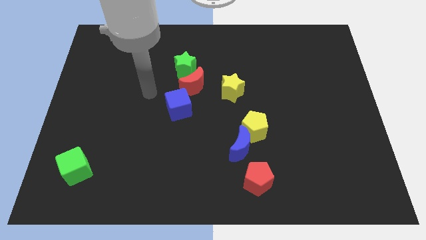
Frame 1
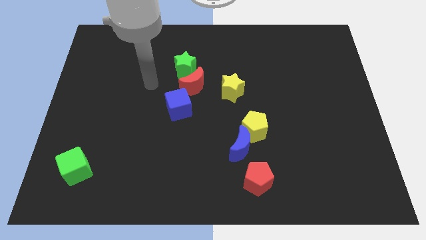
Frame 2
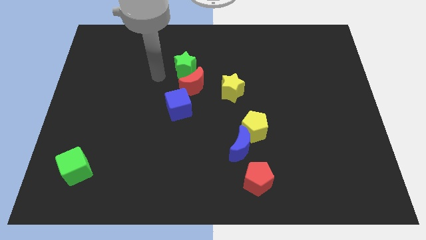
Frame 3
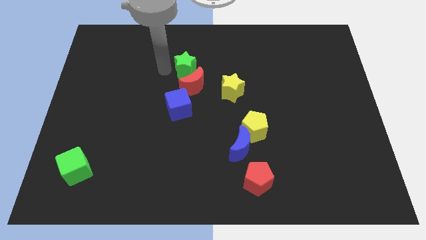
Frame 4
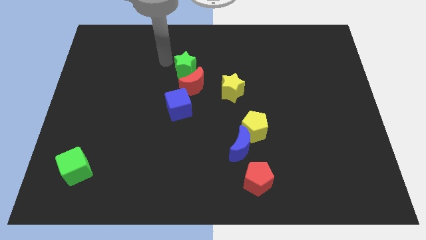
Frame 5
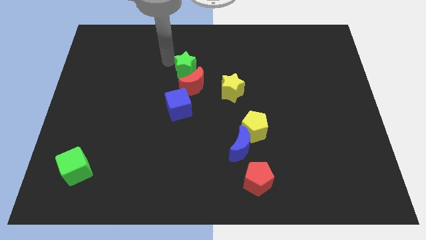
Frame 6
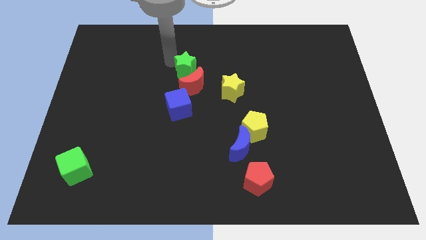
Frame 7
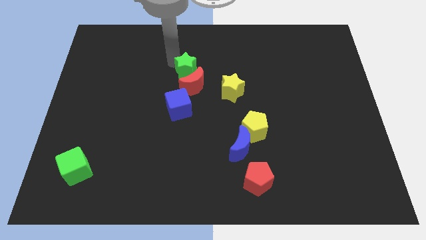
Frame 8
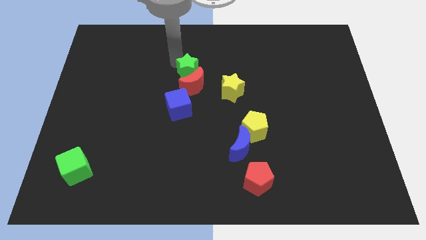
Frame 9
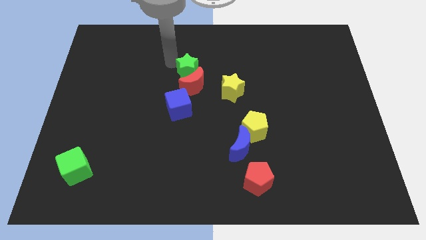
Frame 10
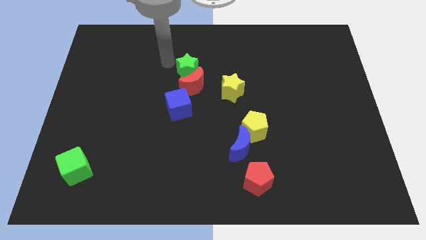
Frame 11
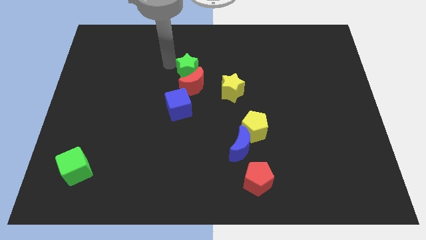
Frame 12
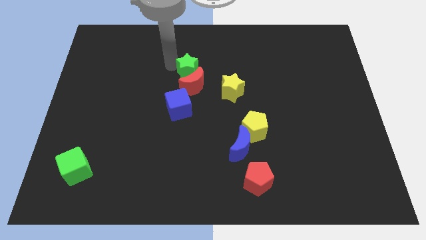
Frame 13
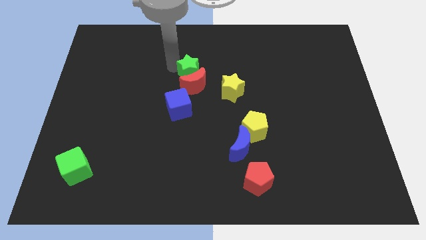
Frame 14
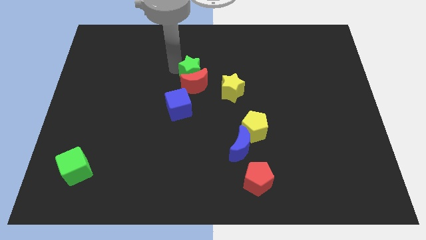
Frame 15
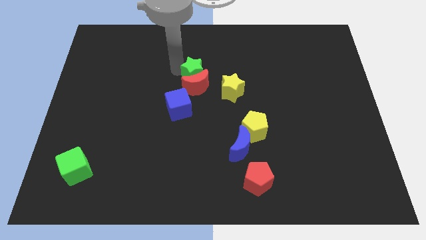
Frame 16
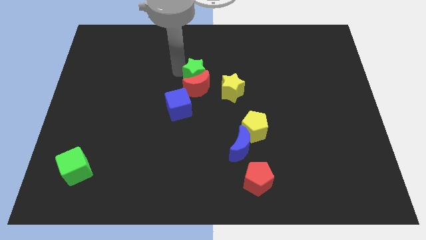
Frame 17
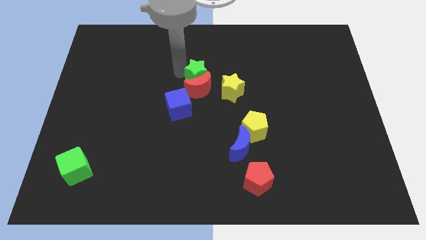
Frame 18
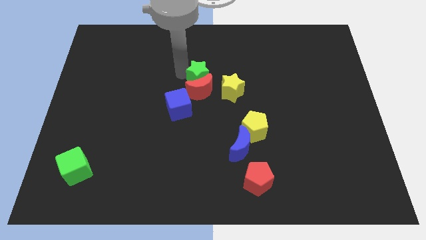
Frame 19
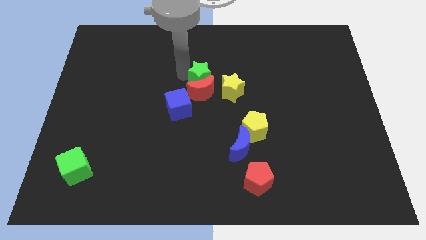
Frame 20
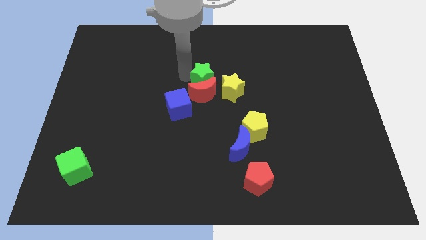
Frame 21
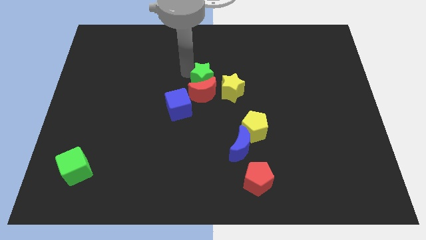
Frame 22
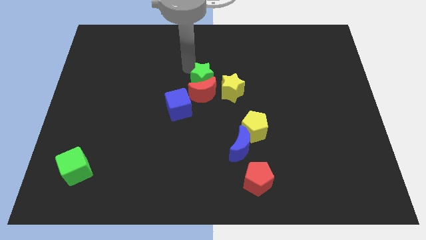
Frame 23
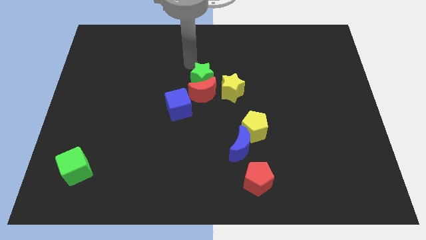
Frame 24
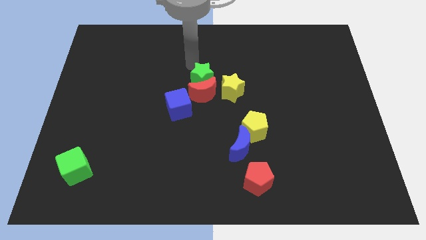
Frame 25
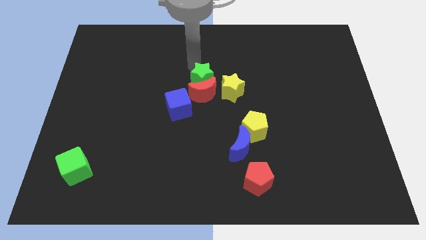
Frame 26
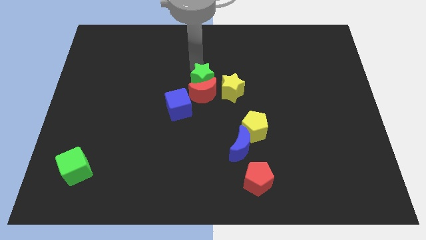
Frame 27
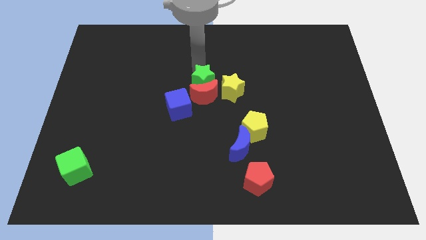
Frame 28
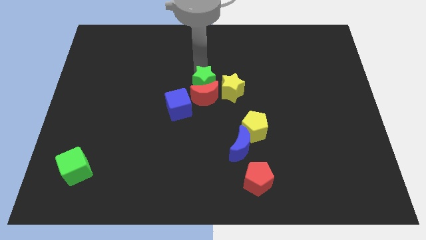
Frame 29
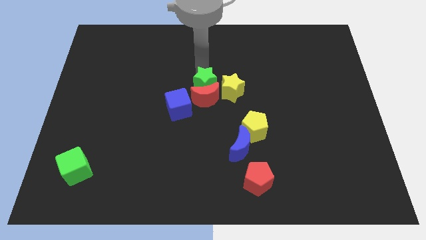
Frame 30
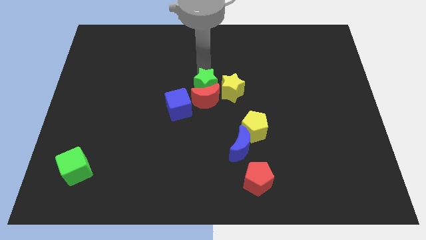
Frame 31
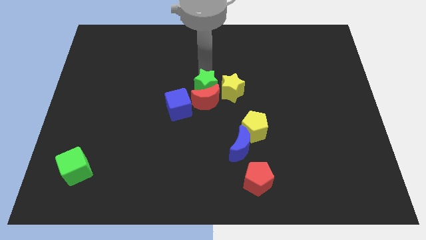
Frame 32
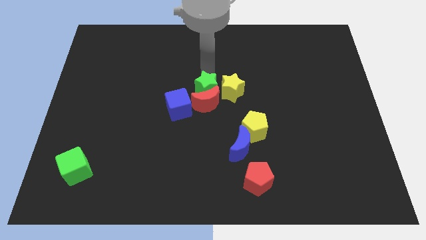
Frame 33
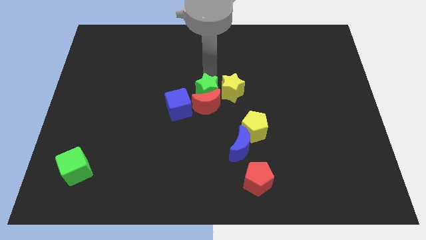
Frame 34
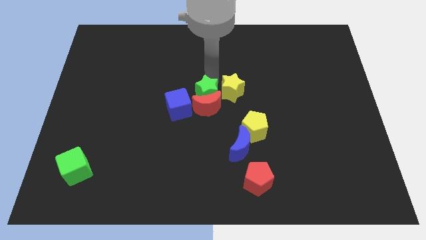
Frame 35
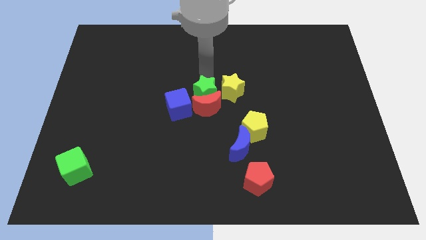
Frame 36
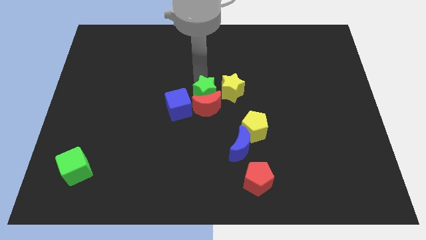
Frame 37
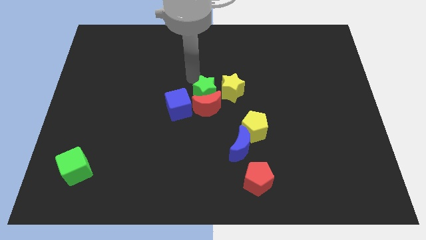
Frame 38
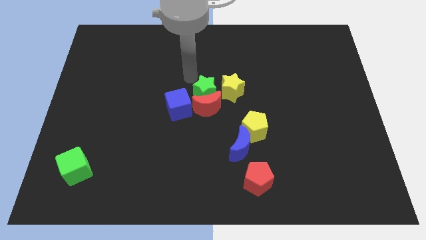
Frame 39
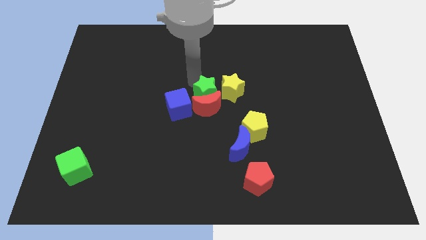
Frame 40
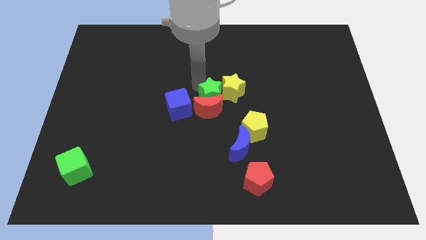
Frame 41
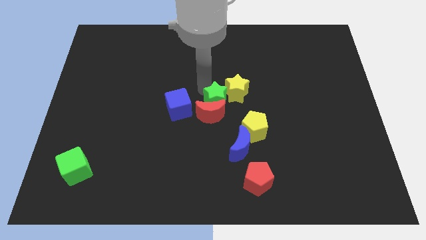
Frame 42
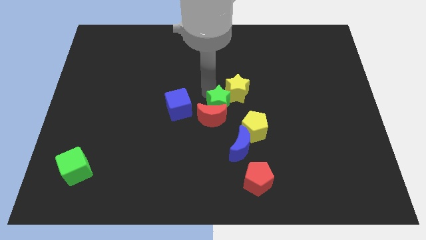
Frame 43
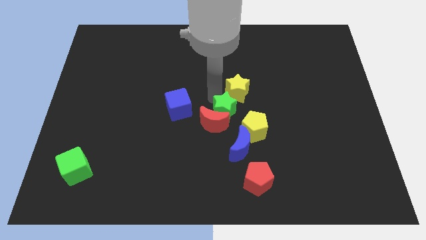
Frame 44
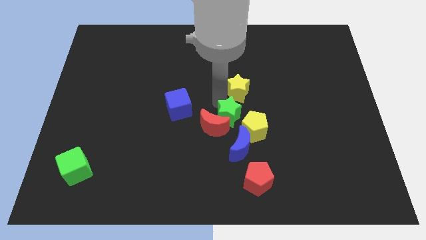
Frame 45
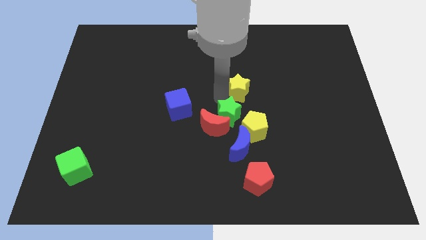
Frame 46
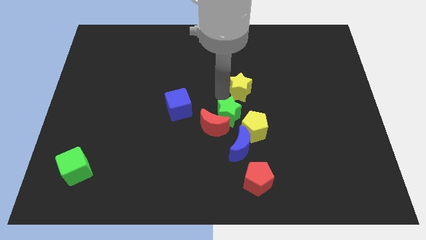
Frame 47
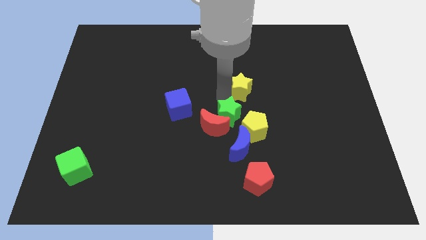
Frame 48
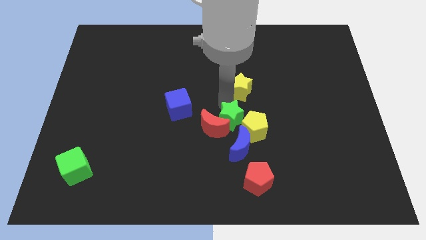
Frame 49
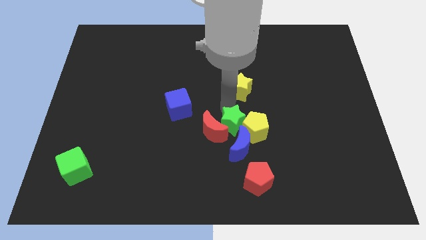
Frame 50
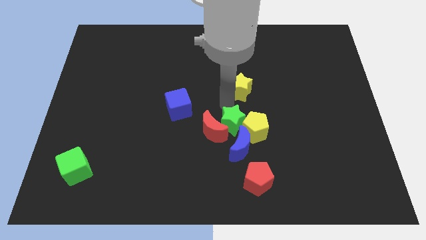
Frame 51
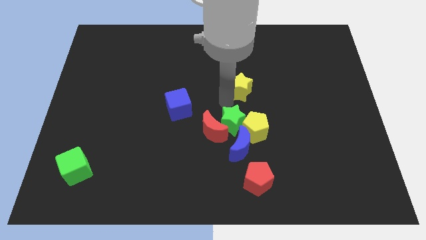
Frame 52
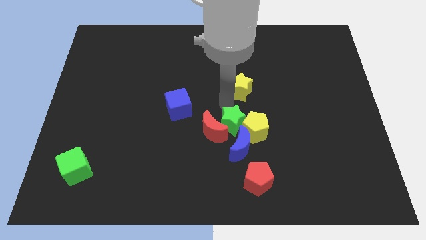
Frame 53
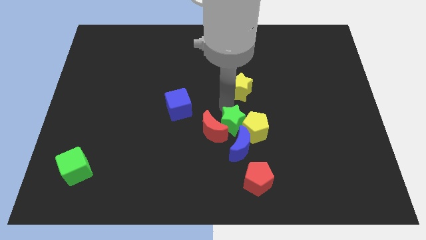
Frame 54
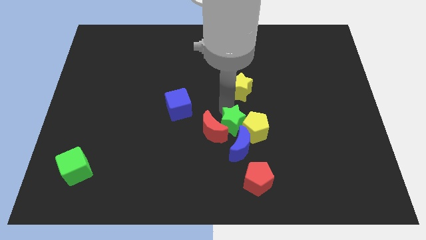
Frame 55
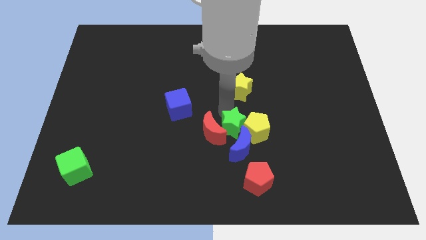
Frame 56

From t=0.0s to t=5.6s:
slide the green star towards the blue moon
